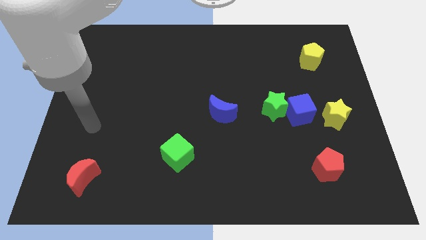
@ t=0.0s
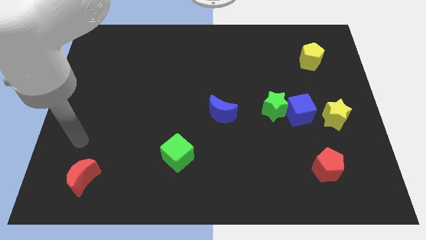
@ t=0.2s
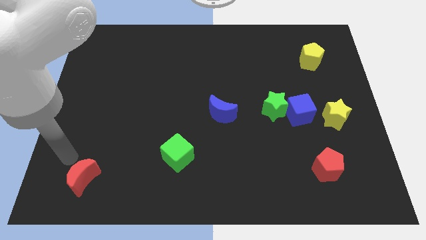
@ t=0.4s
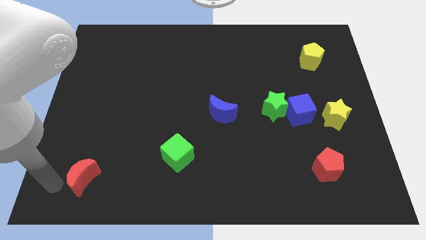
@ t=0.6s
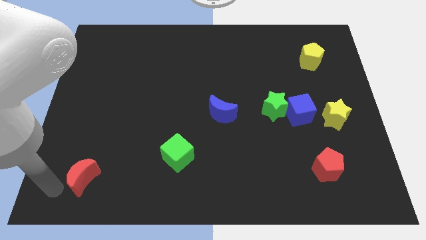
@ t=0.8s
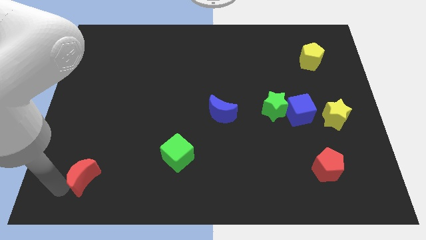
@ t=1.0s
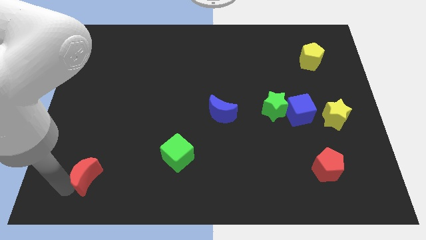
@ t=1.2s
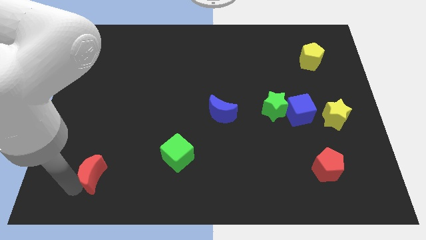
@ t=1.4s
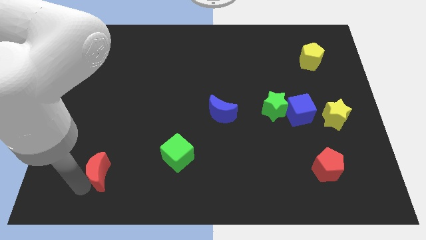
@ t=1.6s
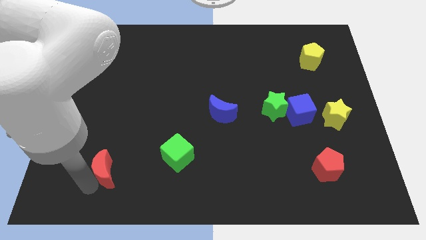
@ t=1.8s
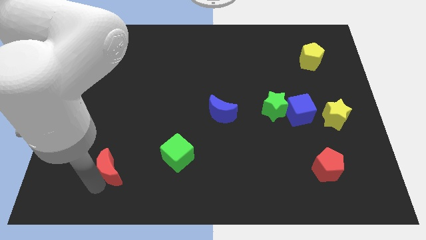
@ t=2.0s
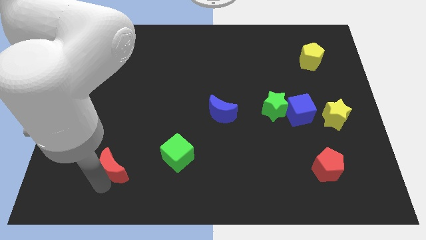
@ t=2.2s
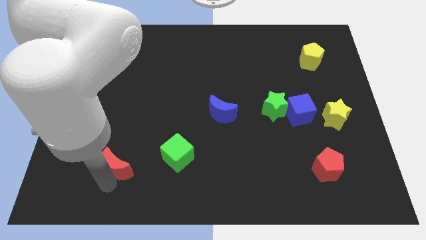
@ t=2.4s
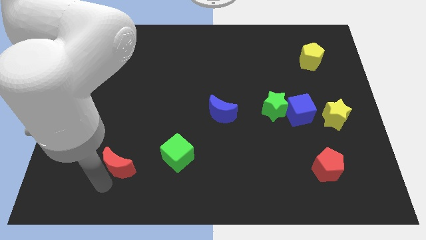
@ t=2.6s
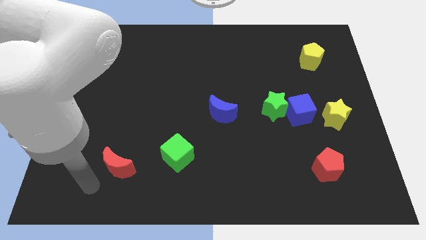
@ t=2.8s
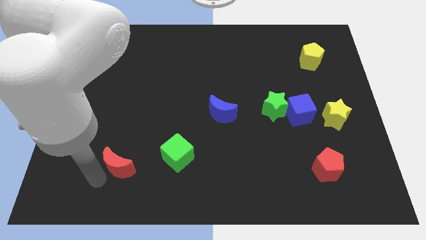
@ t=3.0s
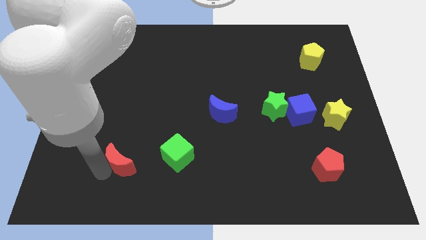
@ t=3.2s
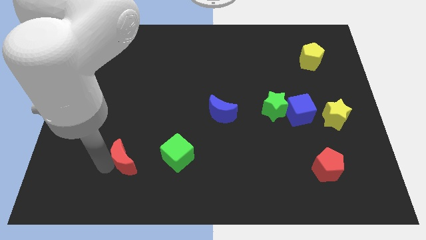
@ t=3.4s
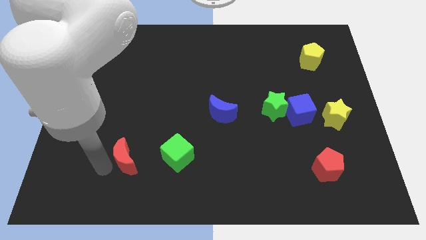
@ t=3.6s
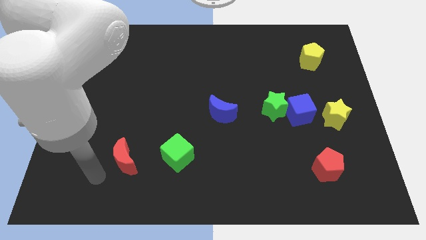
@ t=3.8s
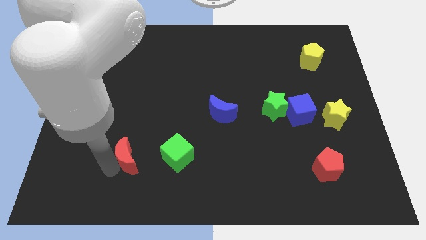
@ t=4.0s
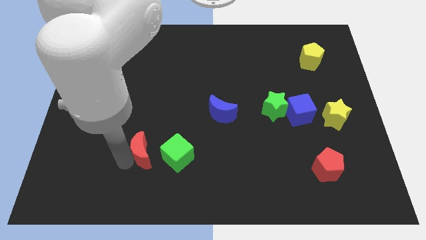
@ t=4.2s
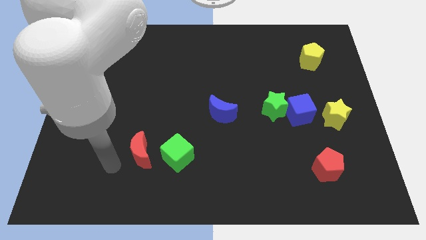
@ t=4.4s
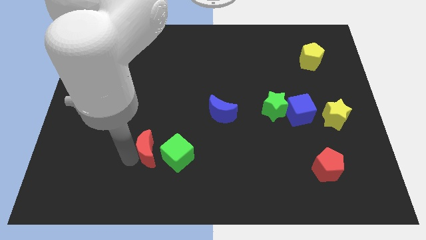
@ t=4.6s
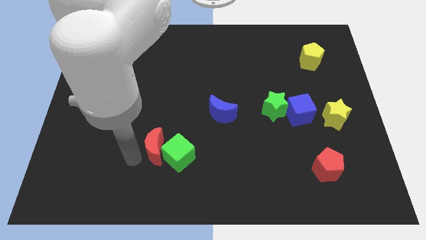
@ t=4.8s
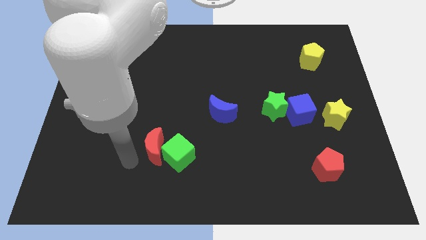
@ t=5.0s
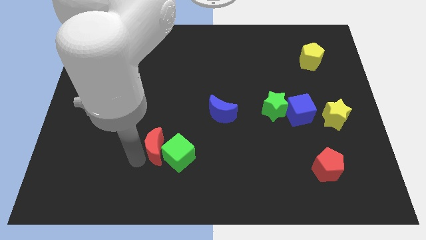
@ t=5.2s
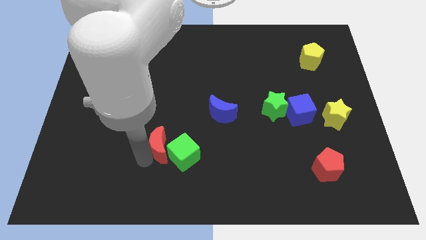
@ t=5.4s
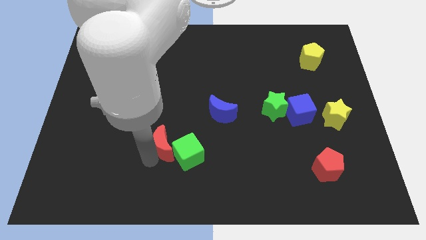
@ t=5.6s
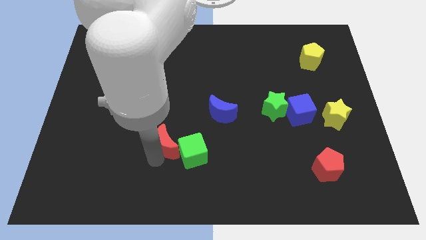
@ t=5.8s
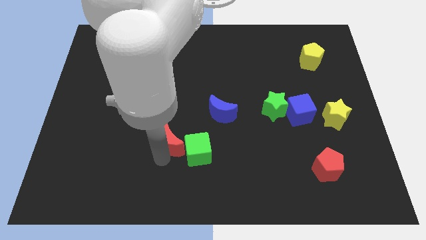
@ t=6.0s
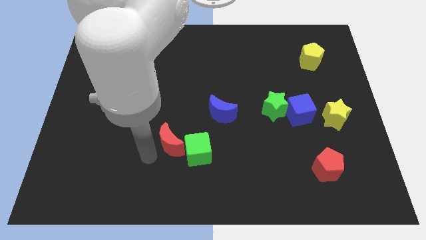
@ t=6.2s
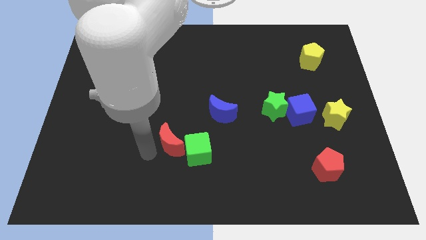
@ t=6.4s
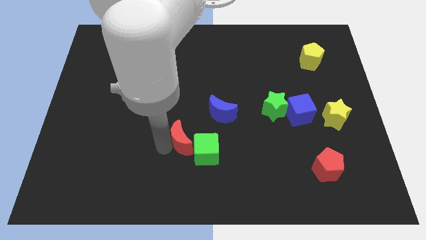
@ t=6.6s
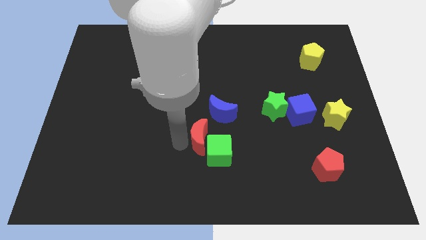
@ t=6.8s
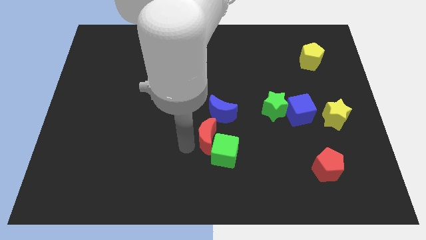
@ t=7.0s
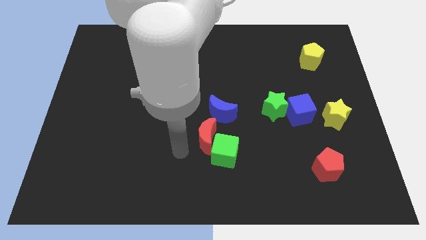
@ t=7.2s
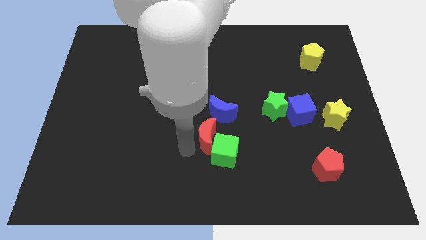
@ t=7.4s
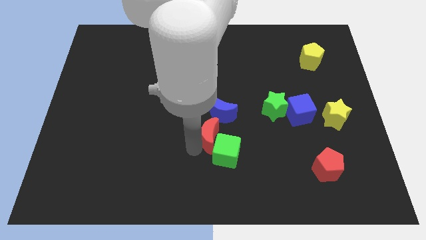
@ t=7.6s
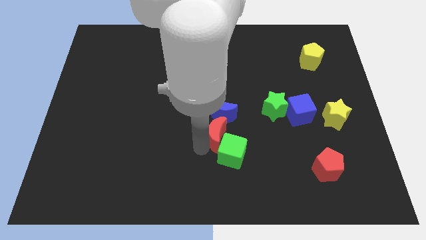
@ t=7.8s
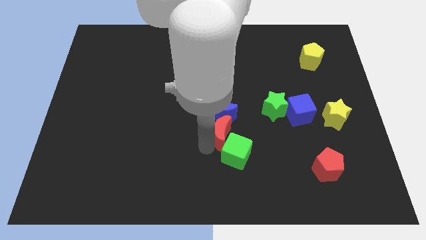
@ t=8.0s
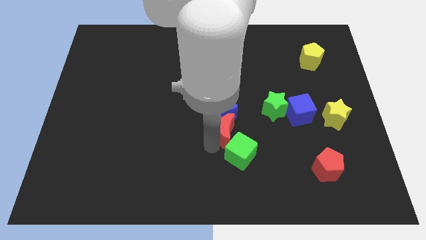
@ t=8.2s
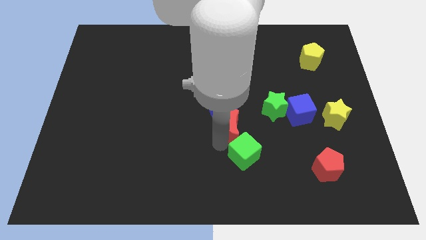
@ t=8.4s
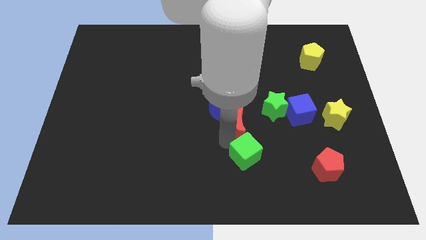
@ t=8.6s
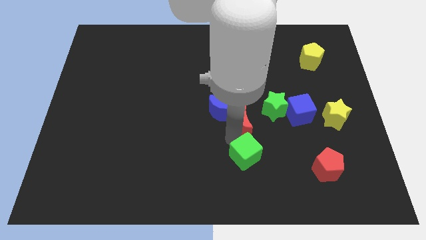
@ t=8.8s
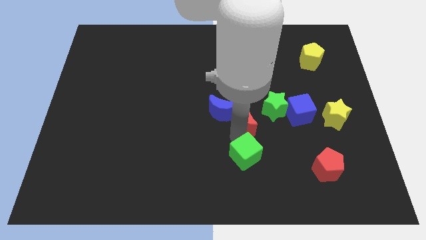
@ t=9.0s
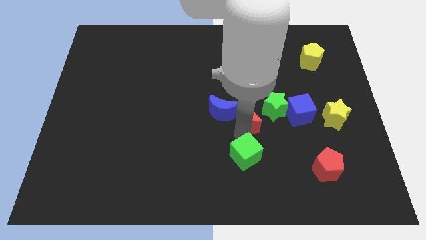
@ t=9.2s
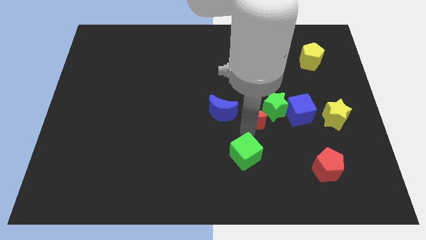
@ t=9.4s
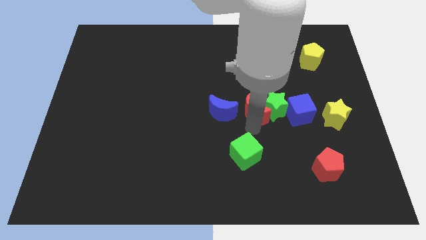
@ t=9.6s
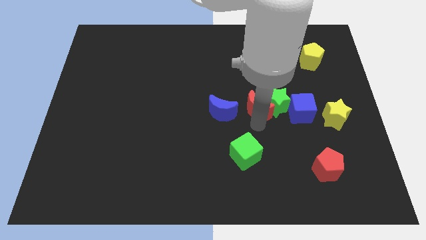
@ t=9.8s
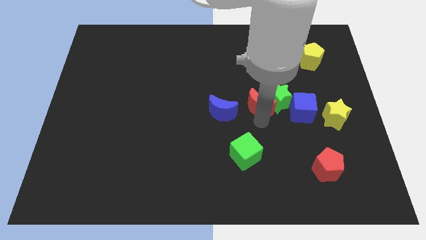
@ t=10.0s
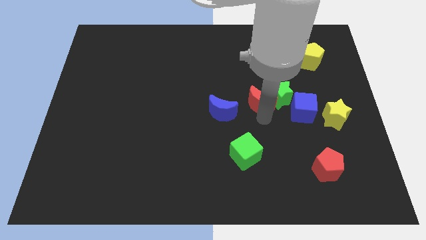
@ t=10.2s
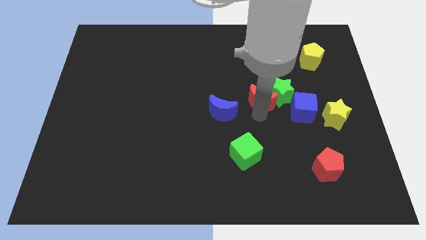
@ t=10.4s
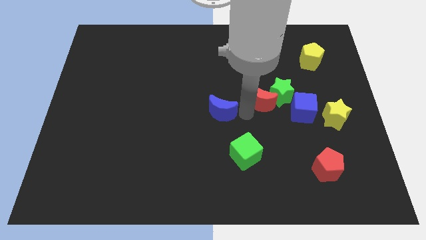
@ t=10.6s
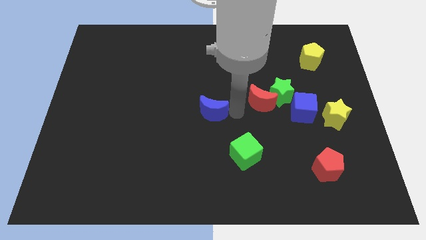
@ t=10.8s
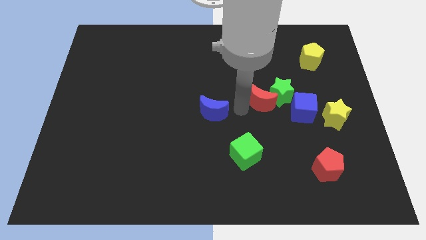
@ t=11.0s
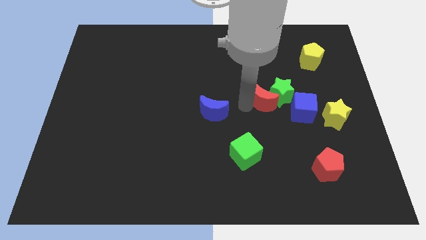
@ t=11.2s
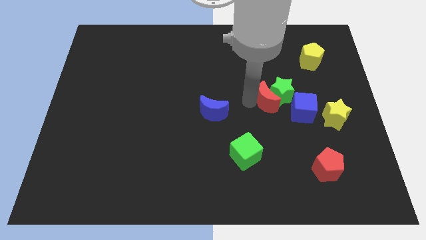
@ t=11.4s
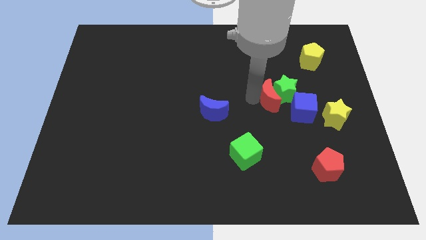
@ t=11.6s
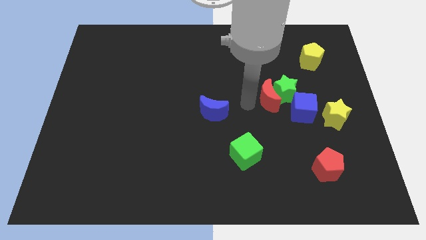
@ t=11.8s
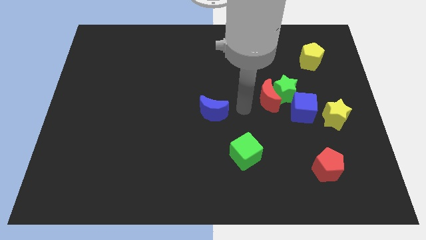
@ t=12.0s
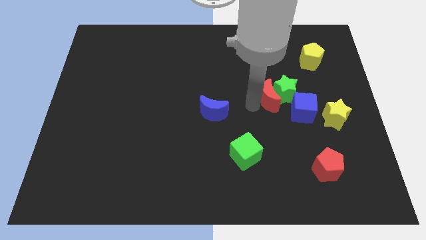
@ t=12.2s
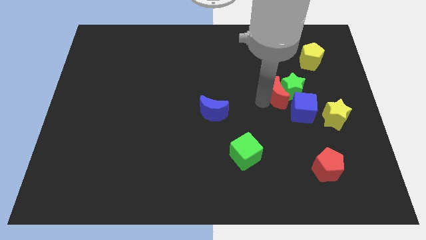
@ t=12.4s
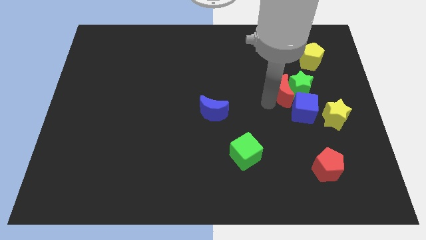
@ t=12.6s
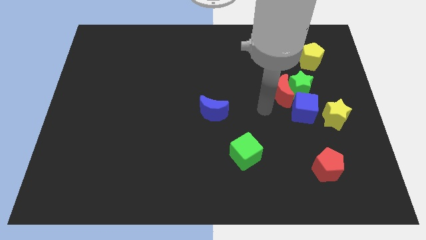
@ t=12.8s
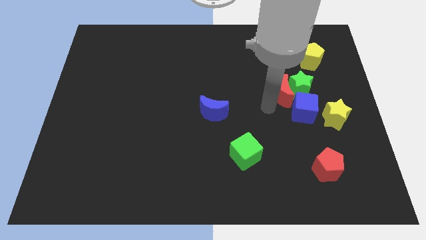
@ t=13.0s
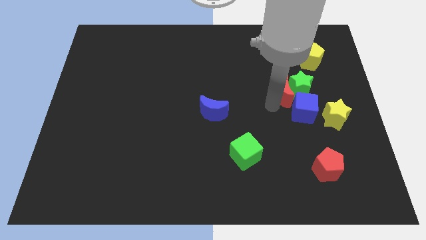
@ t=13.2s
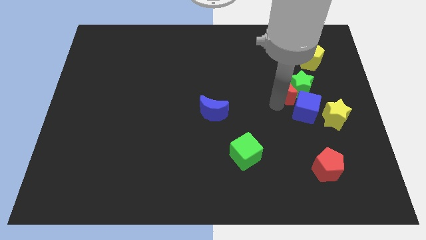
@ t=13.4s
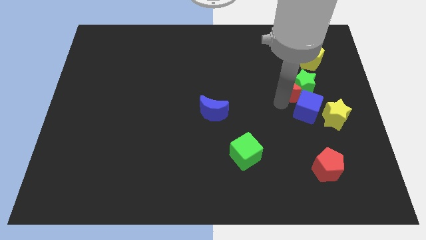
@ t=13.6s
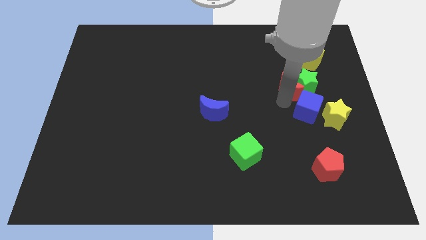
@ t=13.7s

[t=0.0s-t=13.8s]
put the red moon diagonally down and to the left of the yellow pentagon
